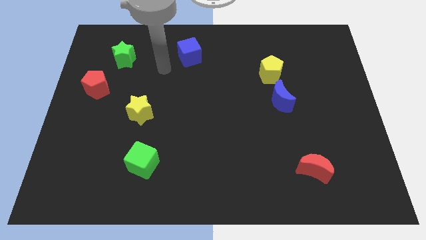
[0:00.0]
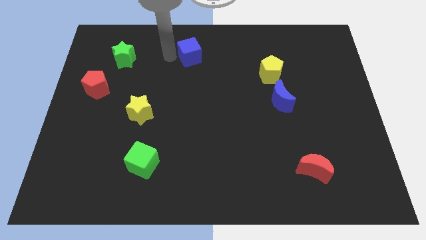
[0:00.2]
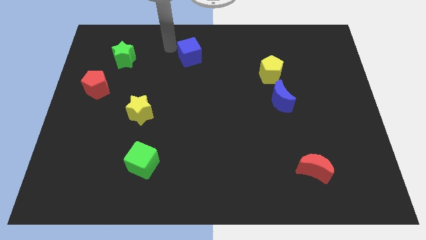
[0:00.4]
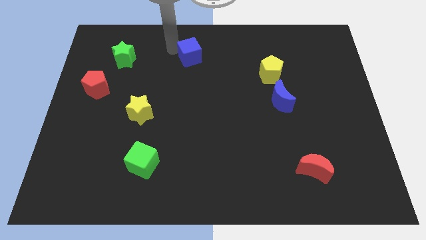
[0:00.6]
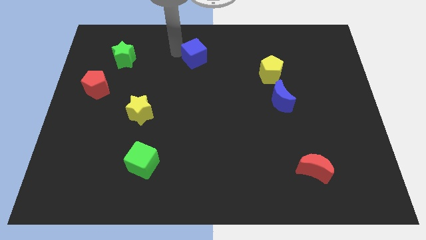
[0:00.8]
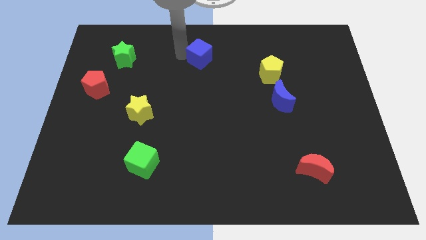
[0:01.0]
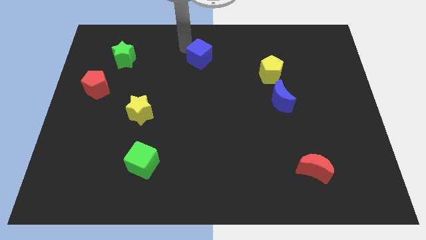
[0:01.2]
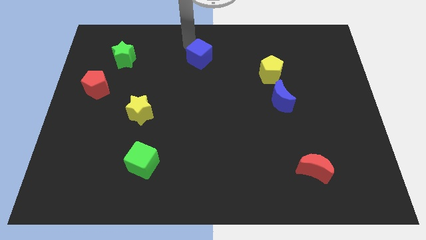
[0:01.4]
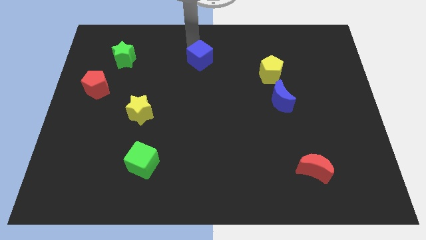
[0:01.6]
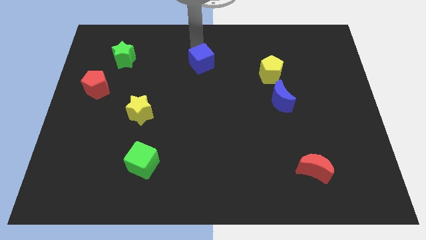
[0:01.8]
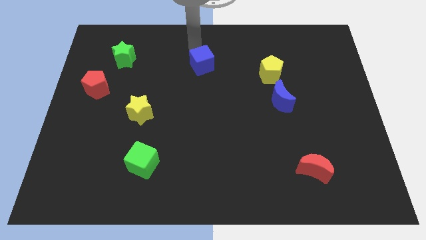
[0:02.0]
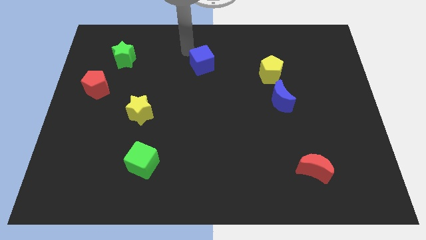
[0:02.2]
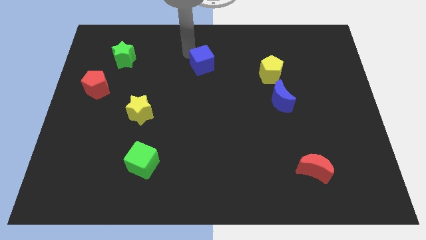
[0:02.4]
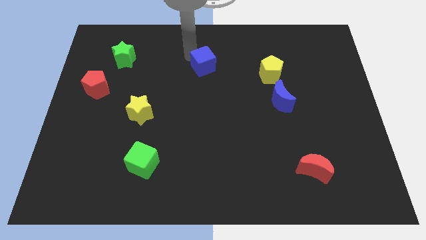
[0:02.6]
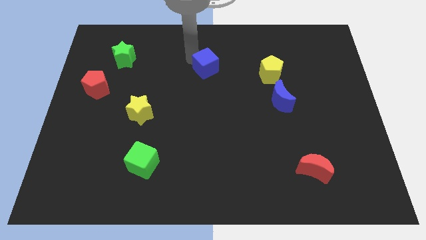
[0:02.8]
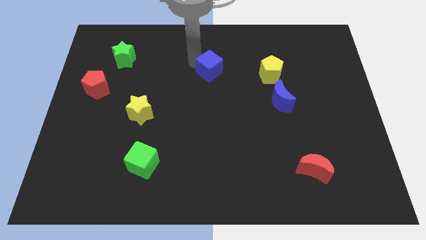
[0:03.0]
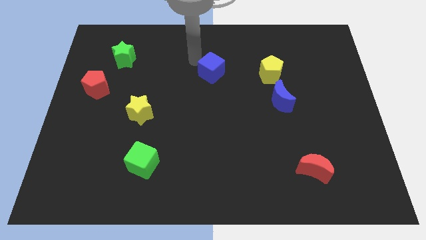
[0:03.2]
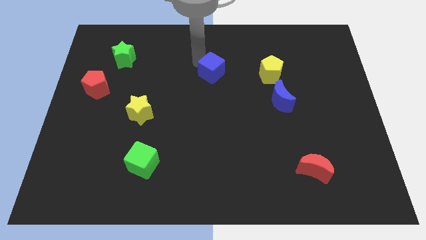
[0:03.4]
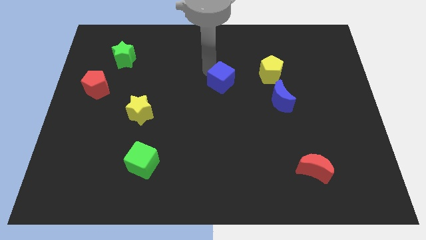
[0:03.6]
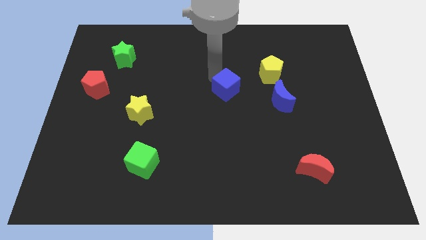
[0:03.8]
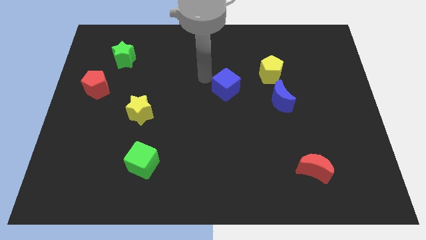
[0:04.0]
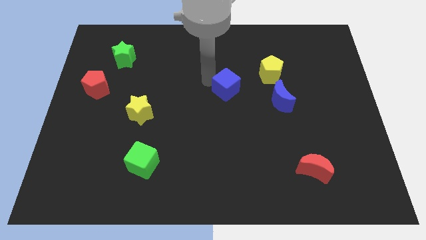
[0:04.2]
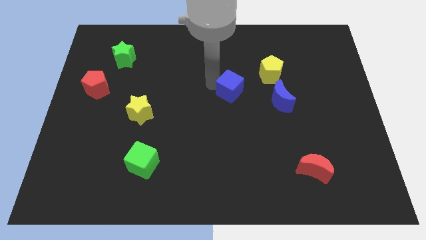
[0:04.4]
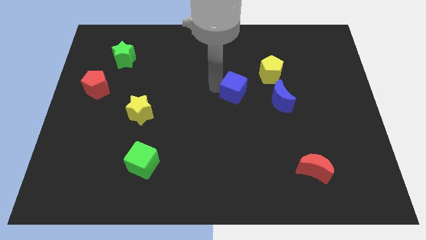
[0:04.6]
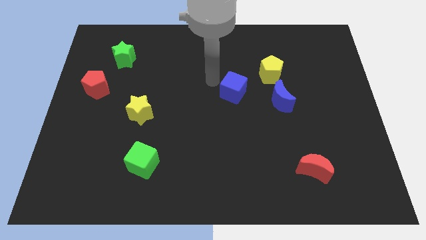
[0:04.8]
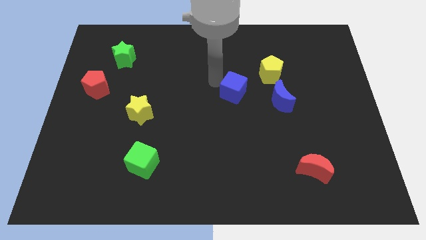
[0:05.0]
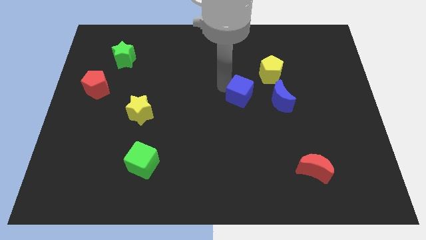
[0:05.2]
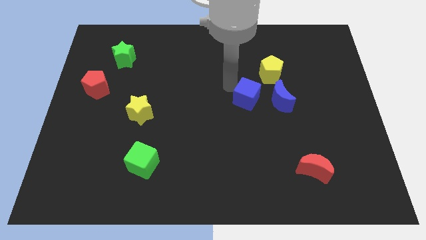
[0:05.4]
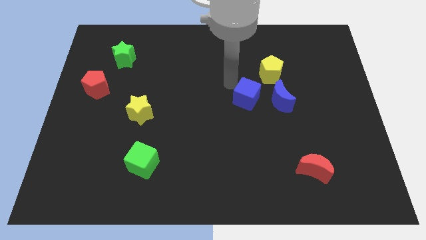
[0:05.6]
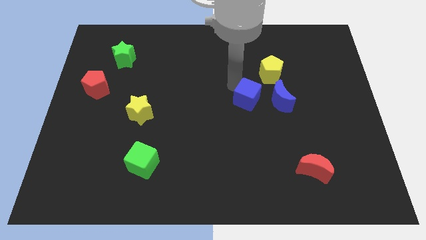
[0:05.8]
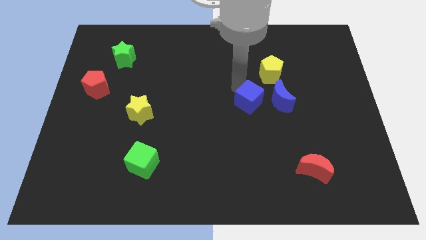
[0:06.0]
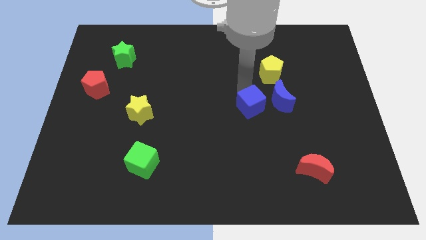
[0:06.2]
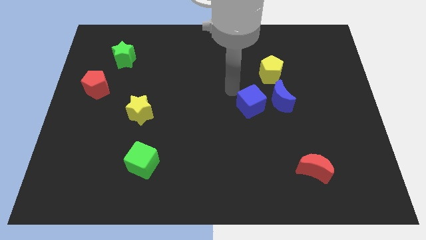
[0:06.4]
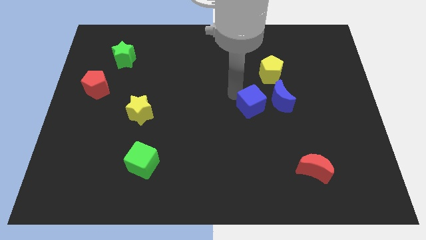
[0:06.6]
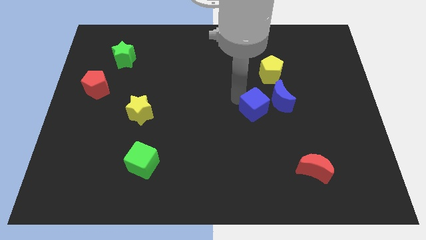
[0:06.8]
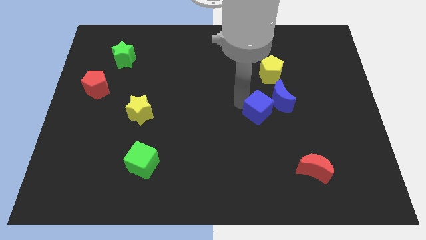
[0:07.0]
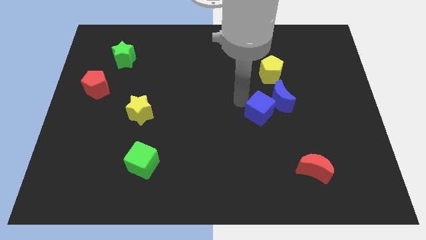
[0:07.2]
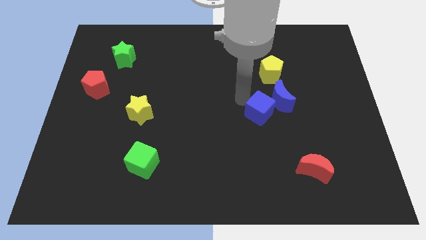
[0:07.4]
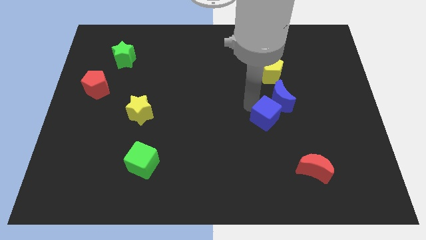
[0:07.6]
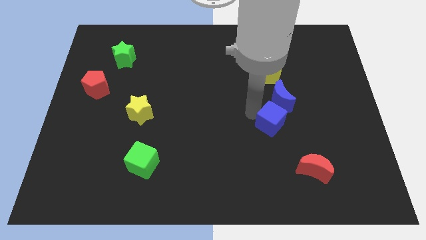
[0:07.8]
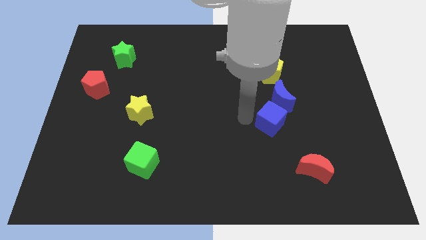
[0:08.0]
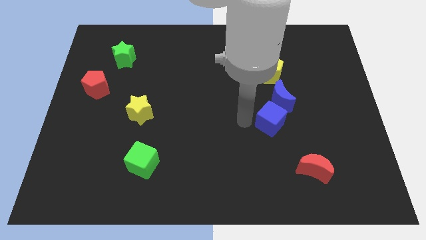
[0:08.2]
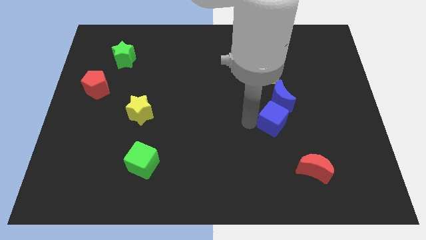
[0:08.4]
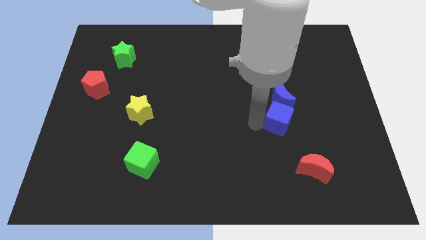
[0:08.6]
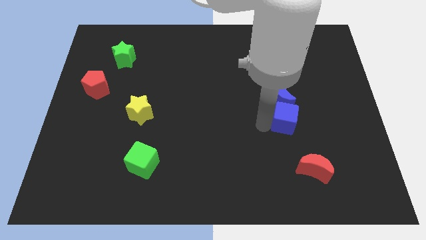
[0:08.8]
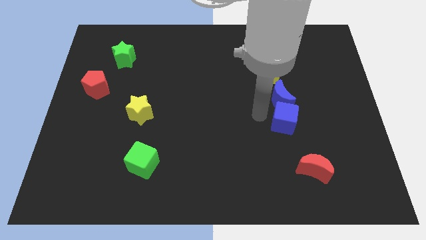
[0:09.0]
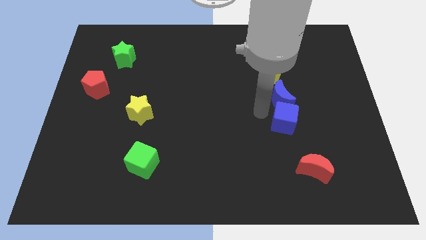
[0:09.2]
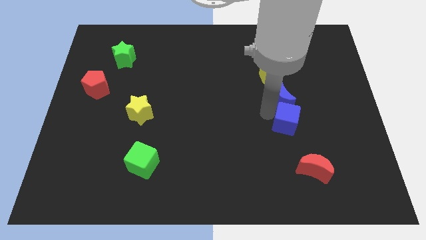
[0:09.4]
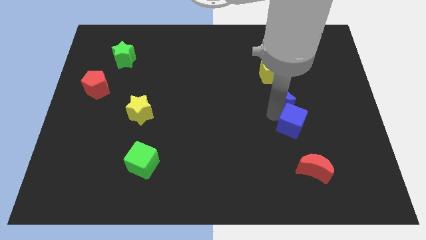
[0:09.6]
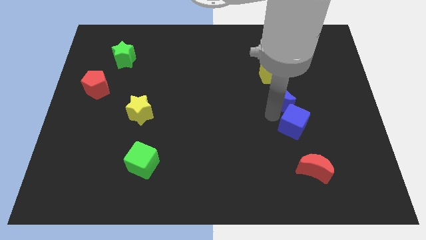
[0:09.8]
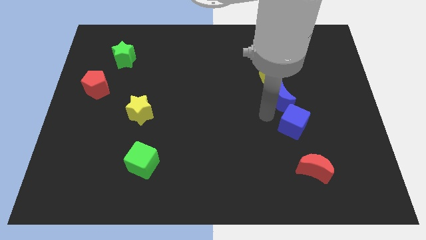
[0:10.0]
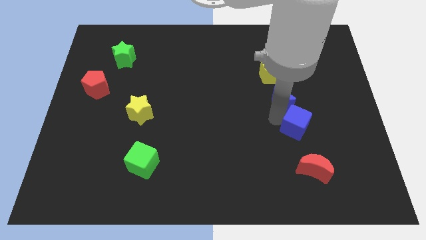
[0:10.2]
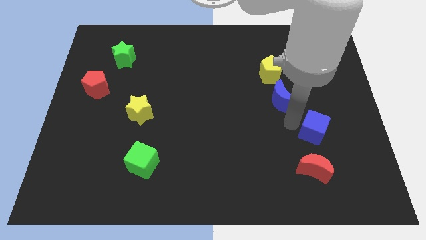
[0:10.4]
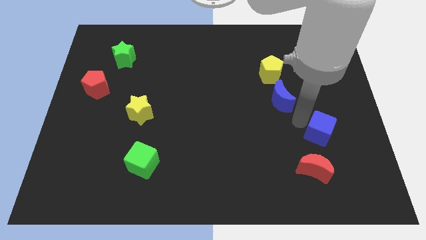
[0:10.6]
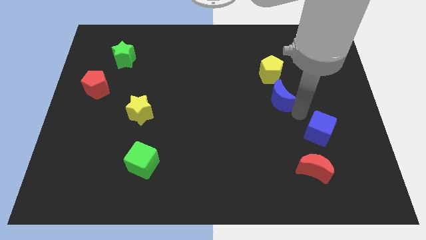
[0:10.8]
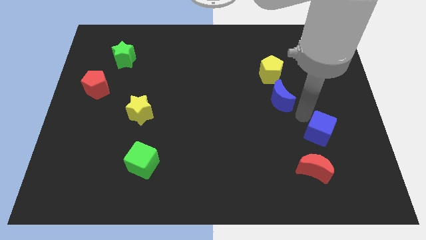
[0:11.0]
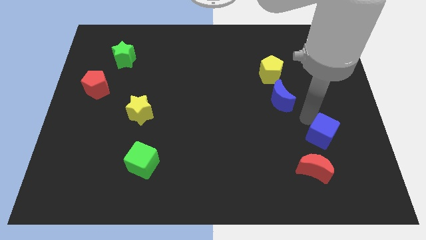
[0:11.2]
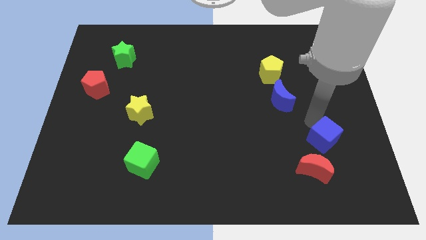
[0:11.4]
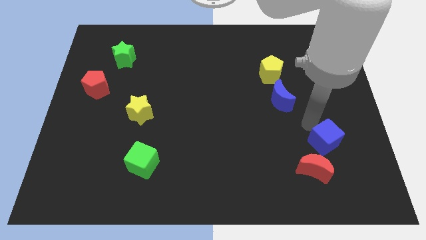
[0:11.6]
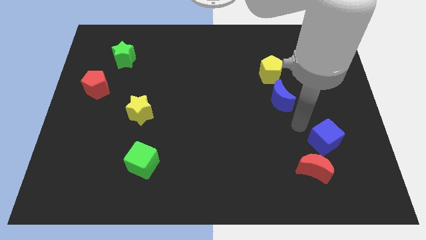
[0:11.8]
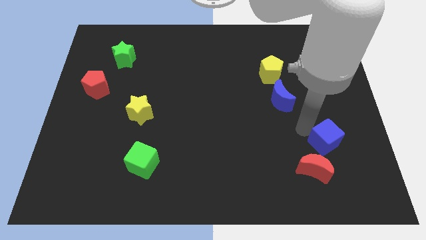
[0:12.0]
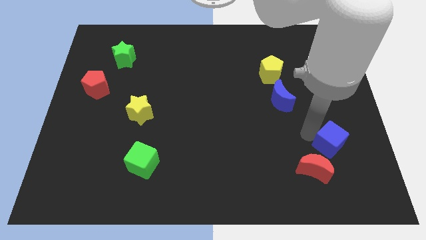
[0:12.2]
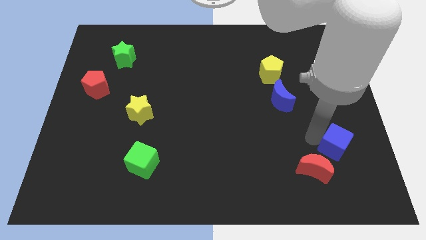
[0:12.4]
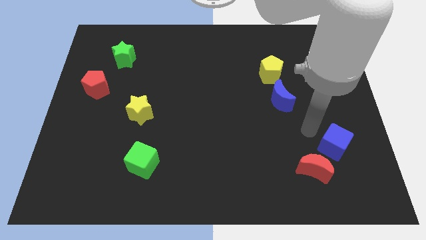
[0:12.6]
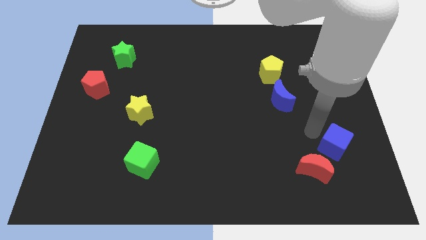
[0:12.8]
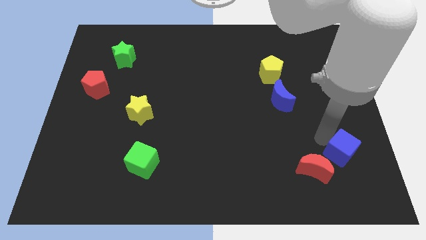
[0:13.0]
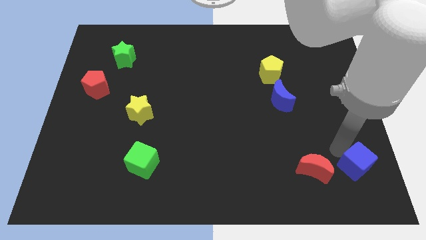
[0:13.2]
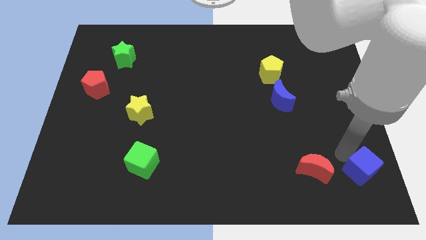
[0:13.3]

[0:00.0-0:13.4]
push the blue cube to the bottom right

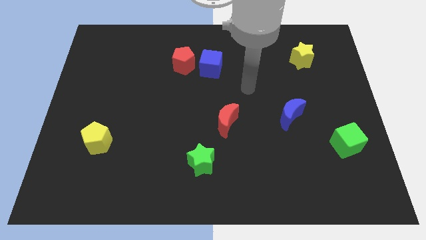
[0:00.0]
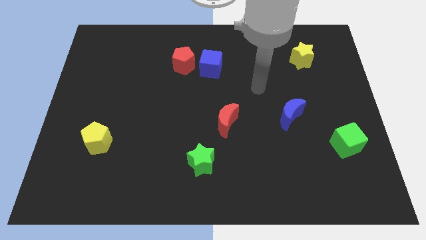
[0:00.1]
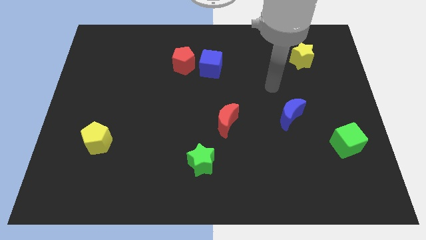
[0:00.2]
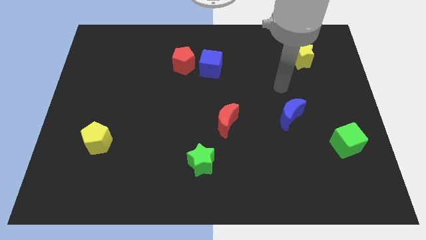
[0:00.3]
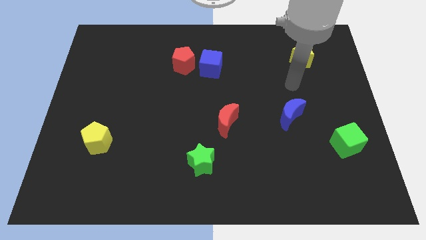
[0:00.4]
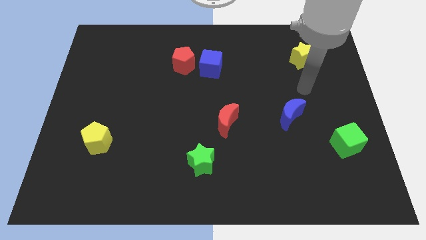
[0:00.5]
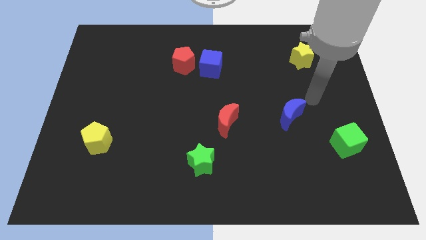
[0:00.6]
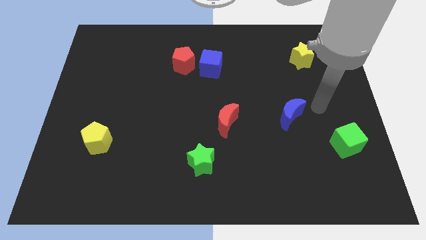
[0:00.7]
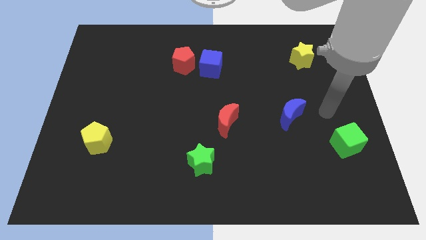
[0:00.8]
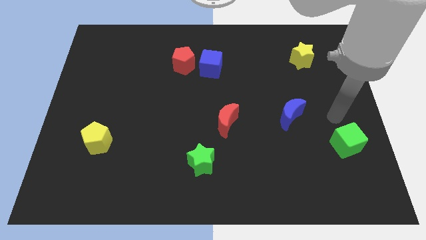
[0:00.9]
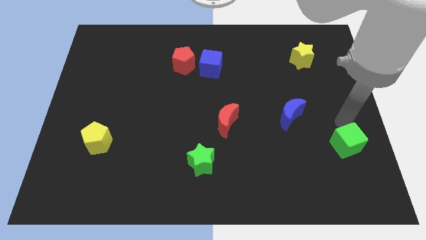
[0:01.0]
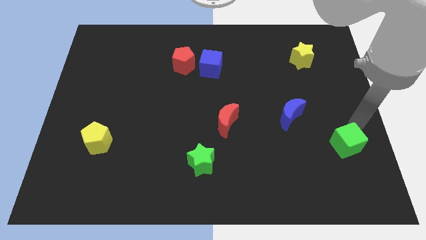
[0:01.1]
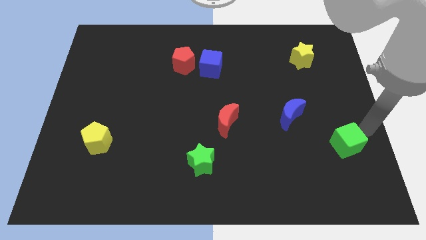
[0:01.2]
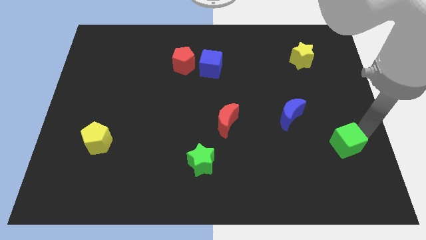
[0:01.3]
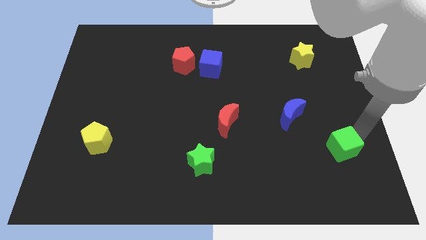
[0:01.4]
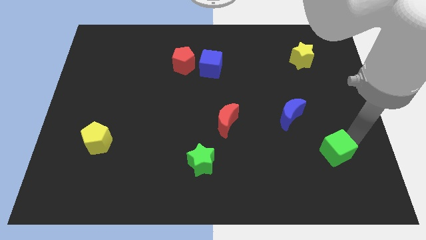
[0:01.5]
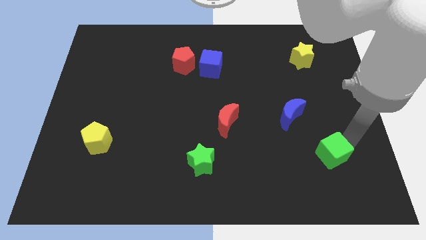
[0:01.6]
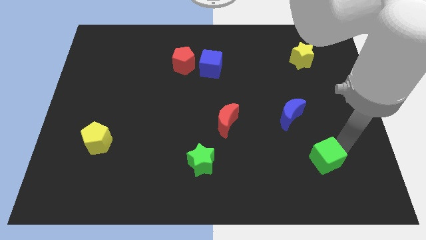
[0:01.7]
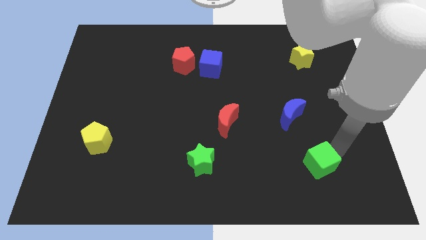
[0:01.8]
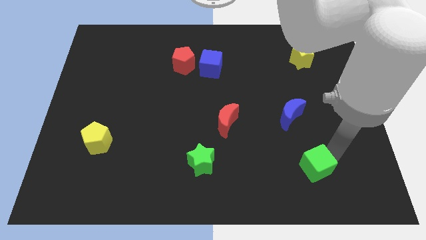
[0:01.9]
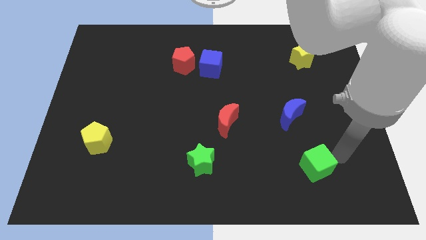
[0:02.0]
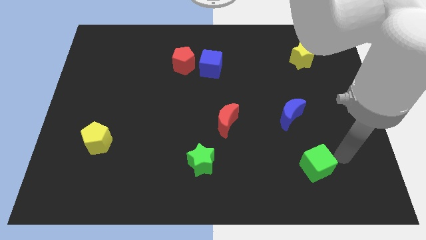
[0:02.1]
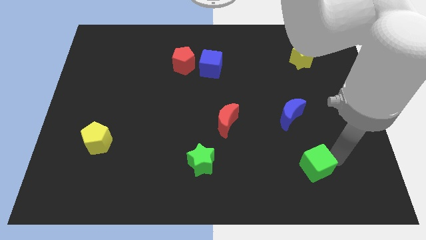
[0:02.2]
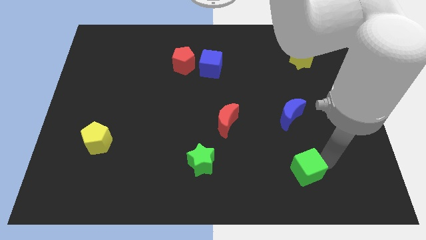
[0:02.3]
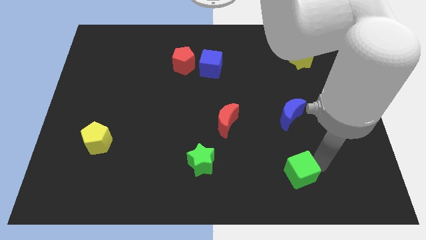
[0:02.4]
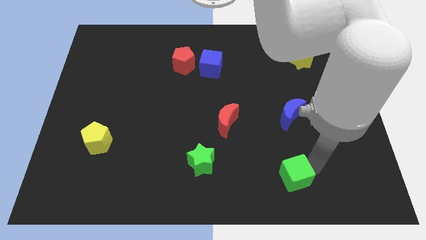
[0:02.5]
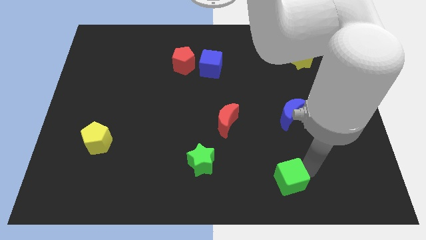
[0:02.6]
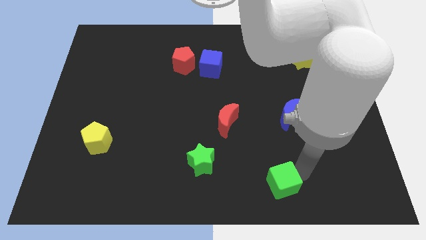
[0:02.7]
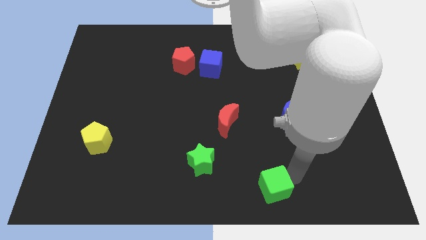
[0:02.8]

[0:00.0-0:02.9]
move the green cube to the bottom side
